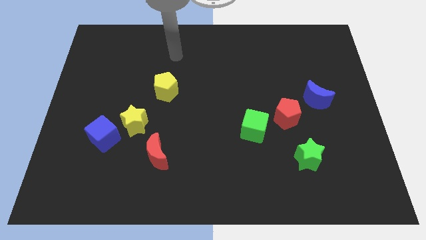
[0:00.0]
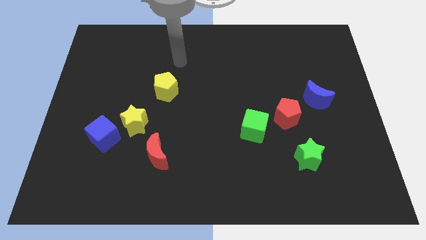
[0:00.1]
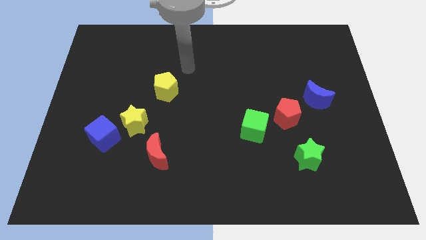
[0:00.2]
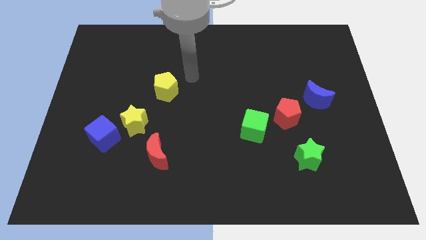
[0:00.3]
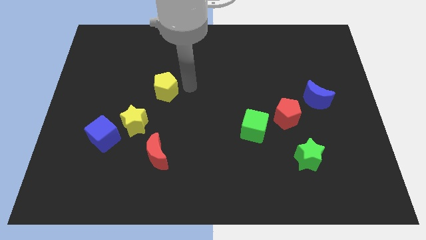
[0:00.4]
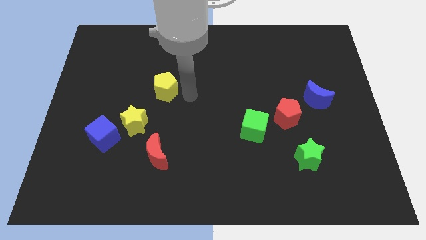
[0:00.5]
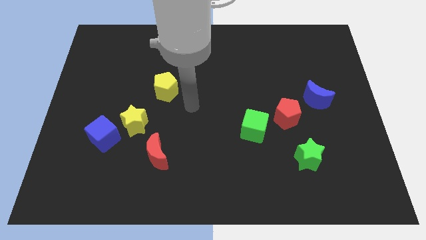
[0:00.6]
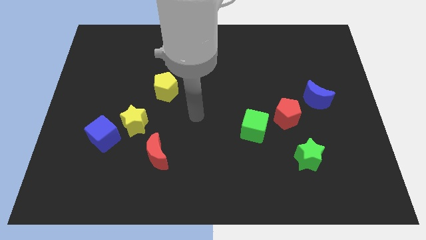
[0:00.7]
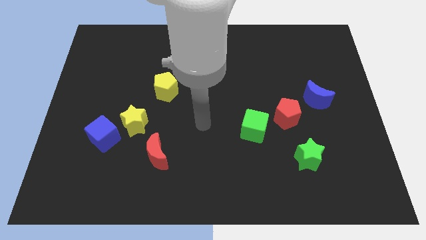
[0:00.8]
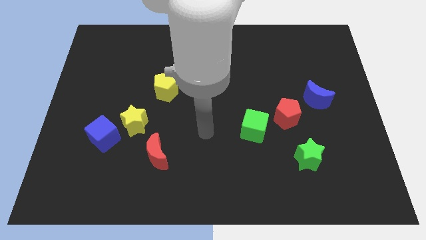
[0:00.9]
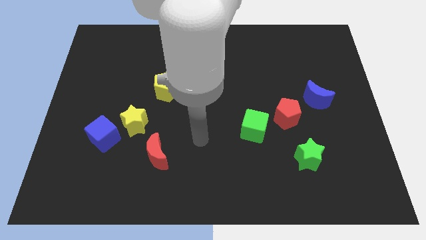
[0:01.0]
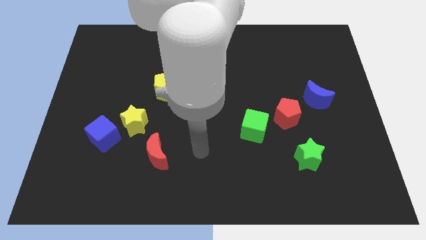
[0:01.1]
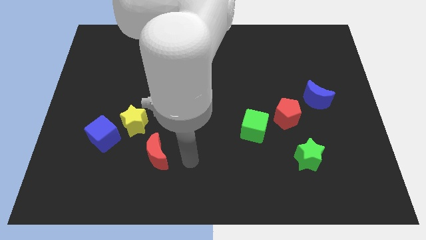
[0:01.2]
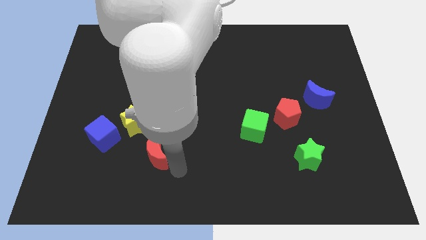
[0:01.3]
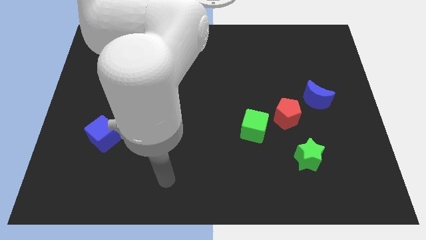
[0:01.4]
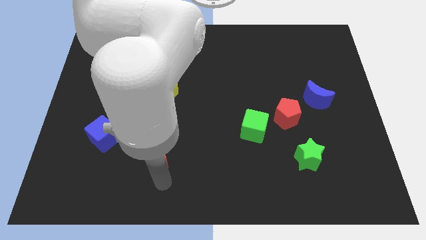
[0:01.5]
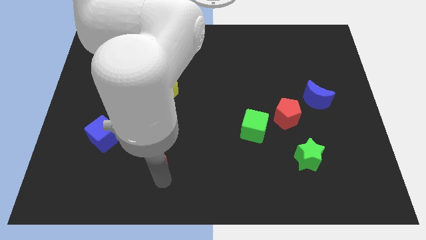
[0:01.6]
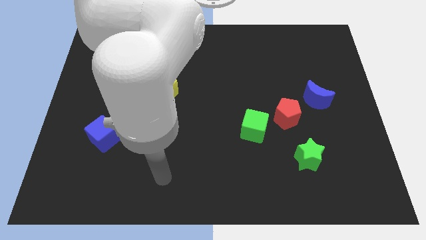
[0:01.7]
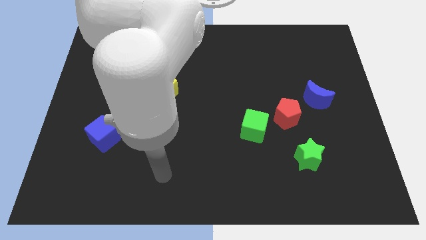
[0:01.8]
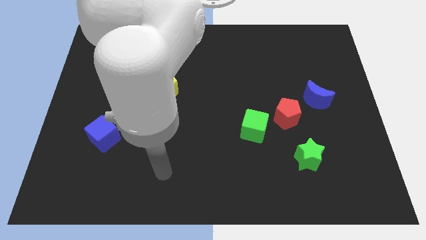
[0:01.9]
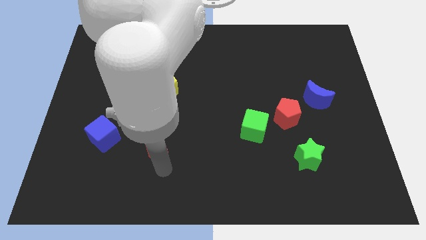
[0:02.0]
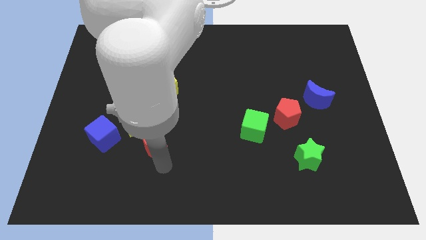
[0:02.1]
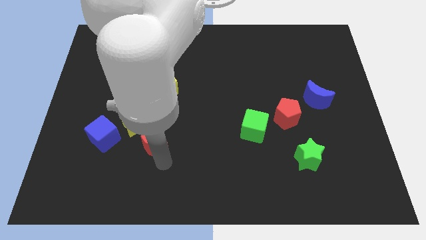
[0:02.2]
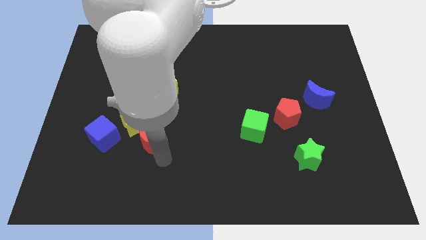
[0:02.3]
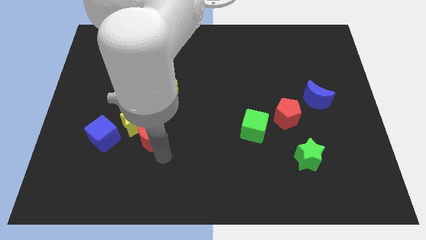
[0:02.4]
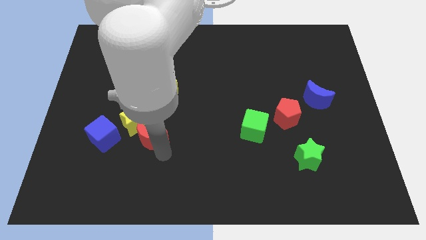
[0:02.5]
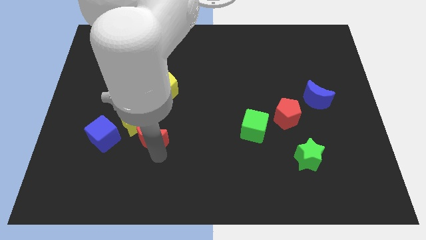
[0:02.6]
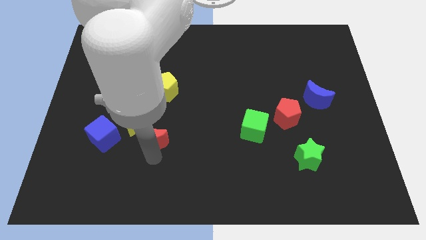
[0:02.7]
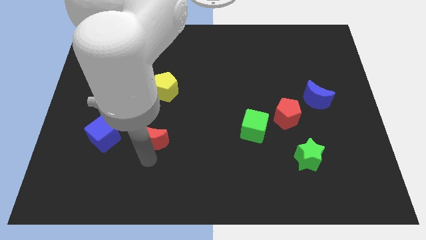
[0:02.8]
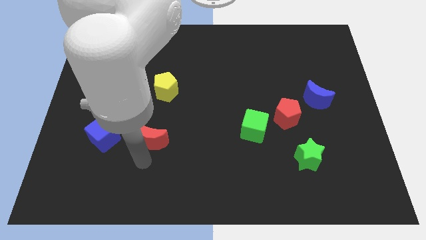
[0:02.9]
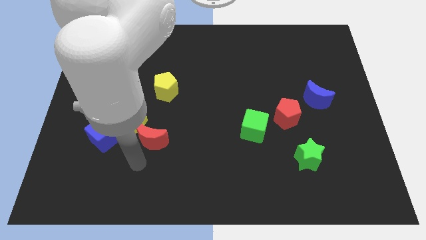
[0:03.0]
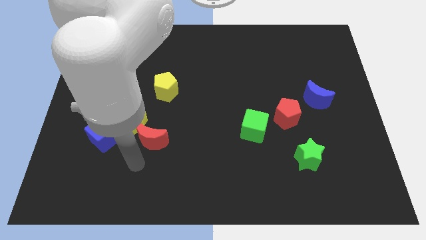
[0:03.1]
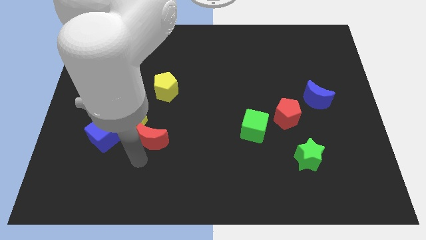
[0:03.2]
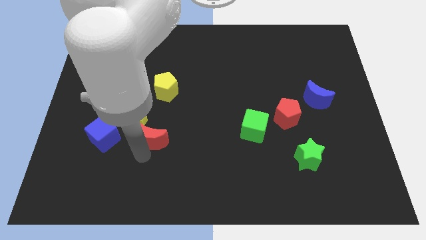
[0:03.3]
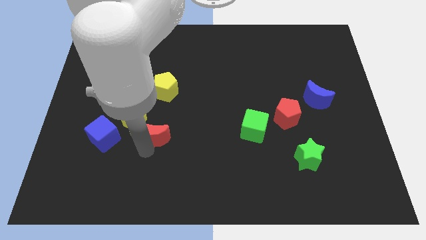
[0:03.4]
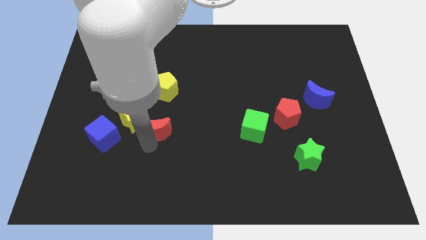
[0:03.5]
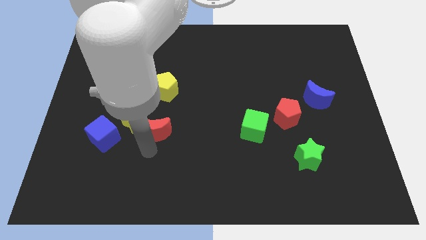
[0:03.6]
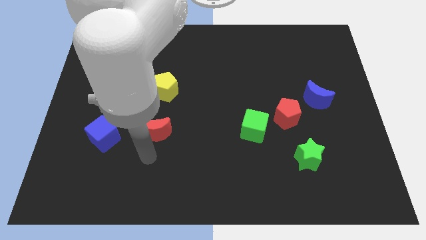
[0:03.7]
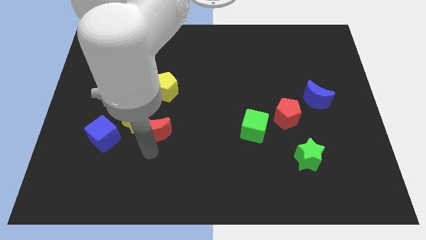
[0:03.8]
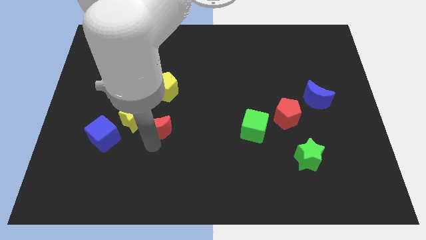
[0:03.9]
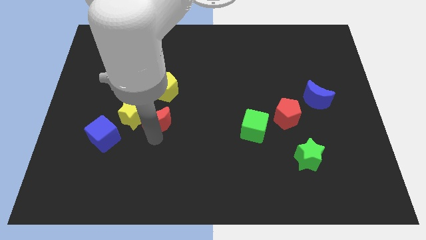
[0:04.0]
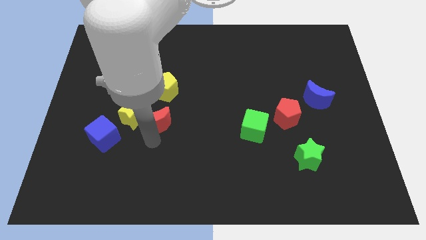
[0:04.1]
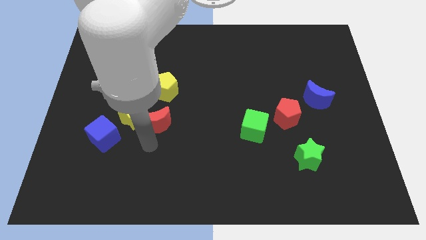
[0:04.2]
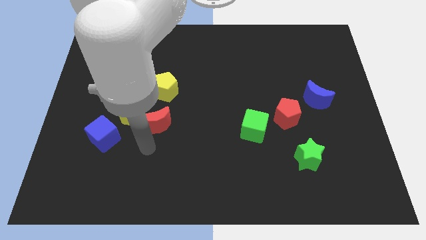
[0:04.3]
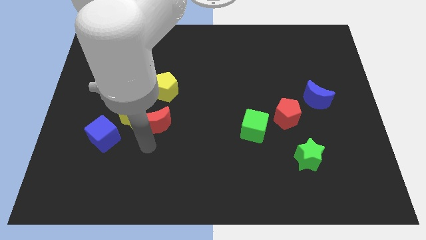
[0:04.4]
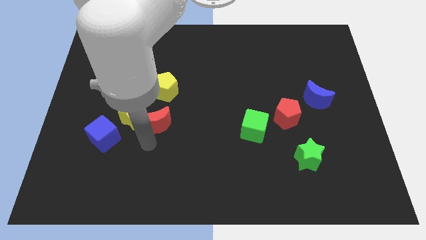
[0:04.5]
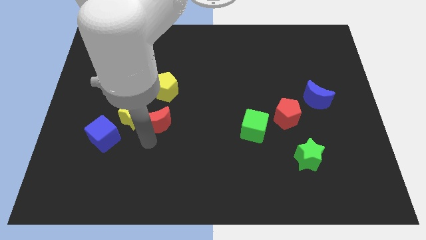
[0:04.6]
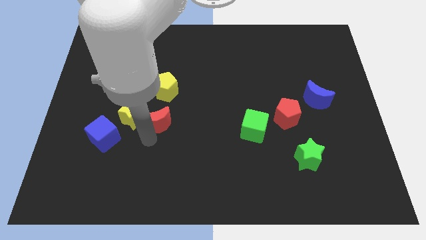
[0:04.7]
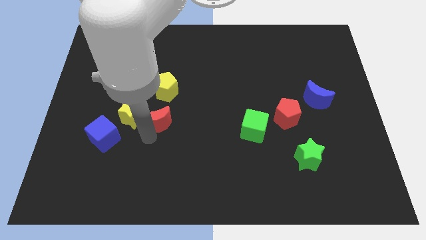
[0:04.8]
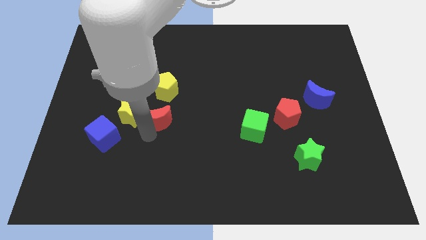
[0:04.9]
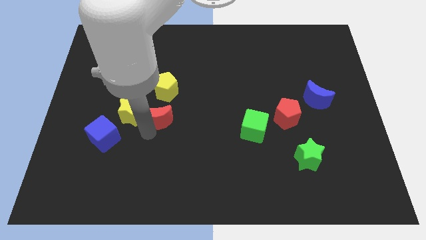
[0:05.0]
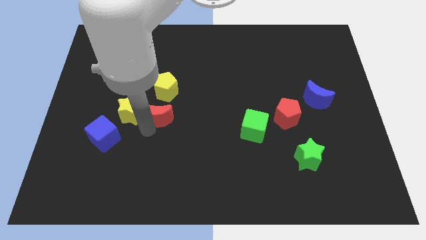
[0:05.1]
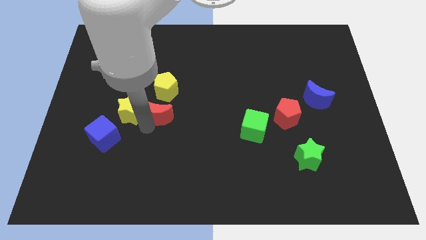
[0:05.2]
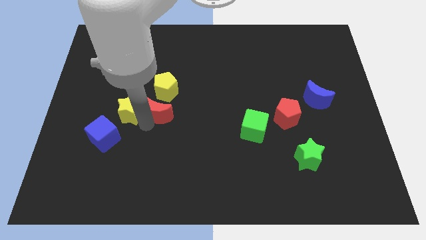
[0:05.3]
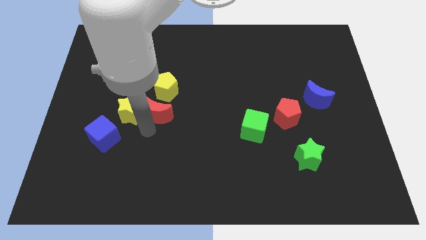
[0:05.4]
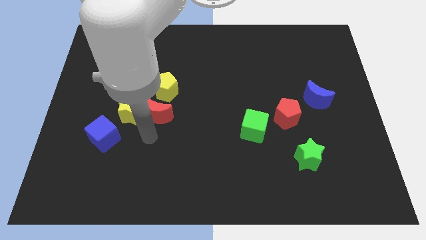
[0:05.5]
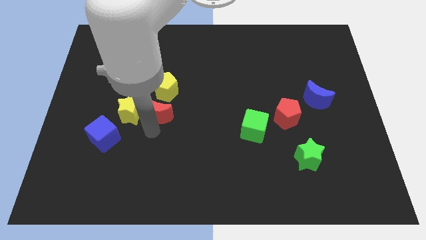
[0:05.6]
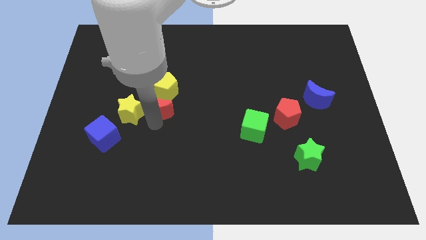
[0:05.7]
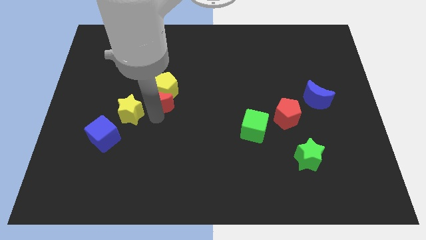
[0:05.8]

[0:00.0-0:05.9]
slide the red moon towards the yellow pentagon

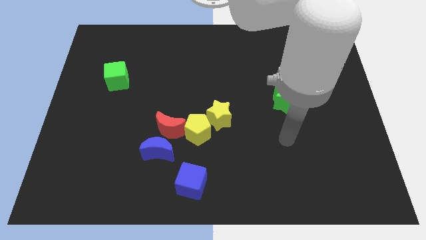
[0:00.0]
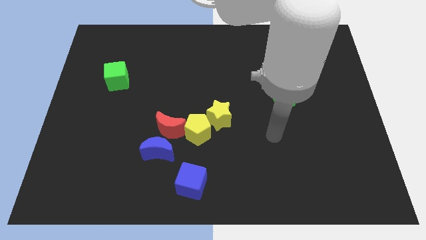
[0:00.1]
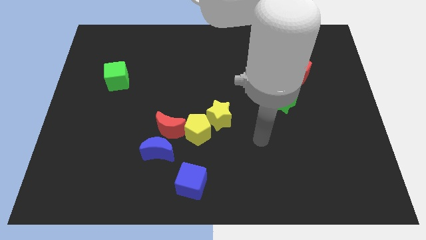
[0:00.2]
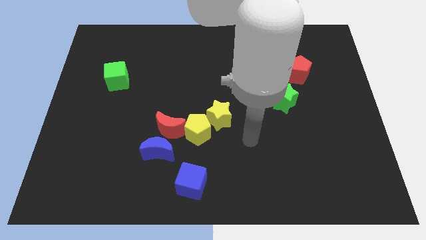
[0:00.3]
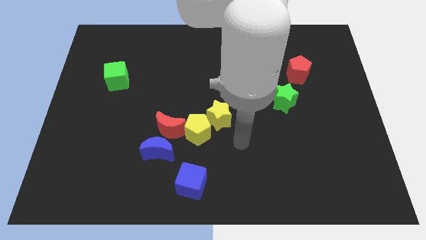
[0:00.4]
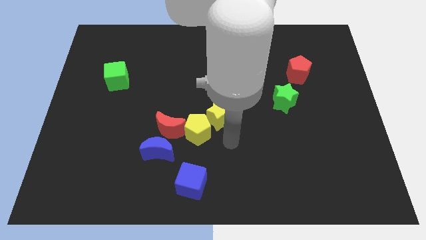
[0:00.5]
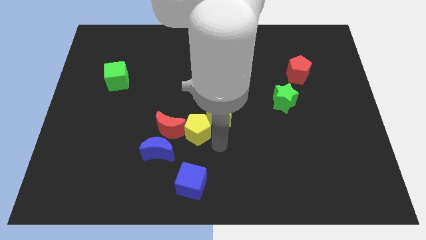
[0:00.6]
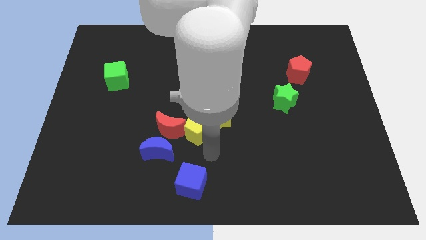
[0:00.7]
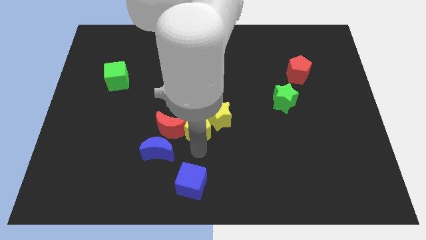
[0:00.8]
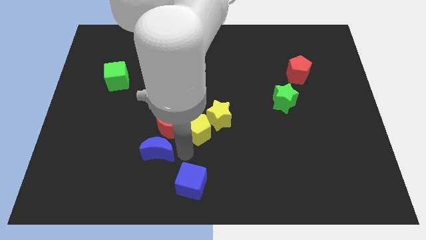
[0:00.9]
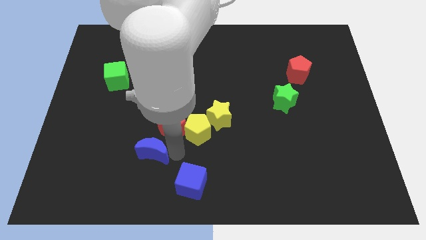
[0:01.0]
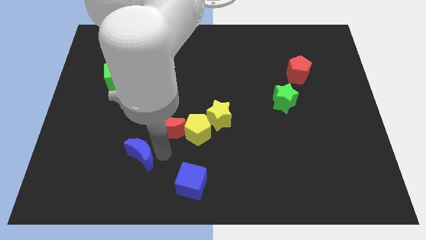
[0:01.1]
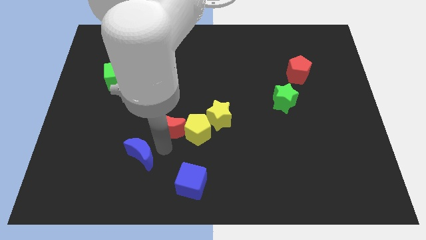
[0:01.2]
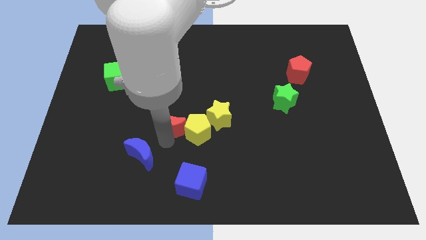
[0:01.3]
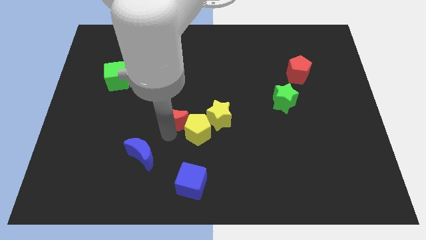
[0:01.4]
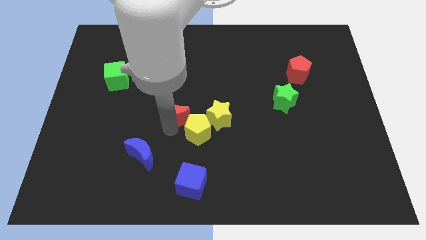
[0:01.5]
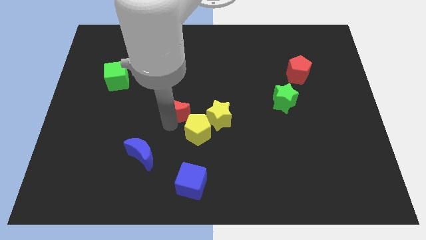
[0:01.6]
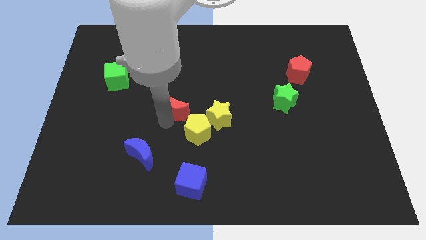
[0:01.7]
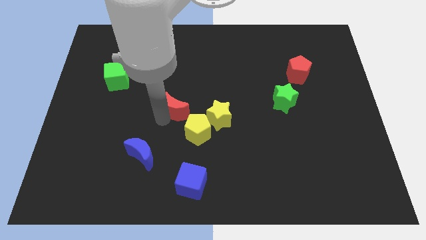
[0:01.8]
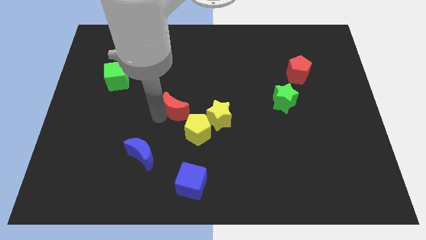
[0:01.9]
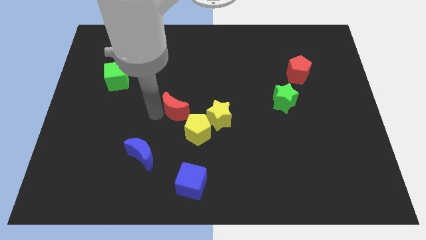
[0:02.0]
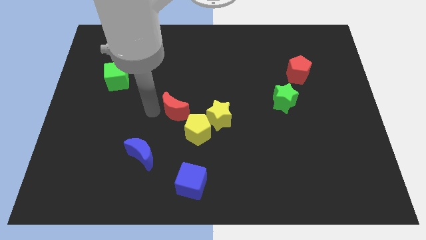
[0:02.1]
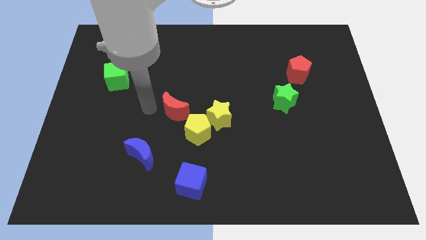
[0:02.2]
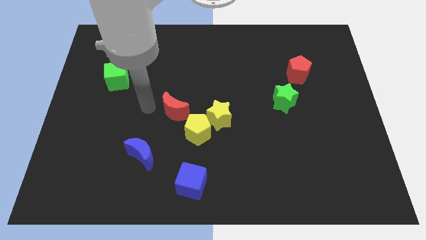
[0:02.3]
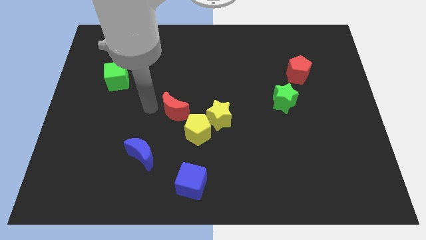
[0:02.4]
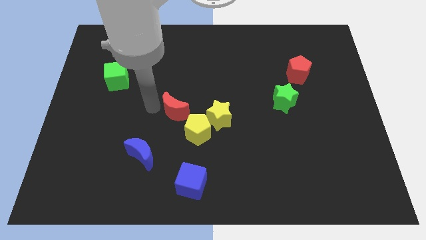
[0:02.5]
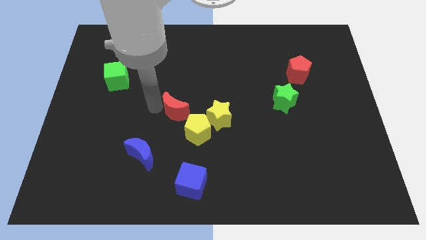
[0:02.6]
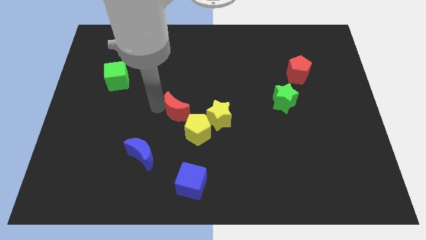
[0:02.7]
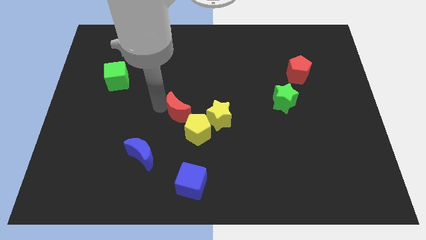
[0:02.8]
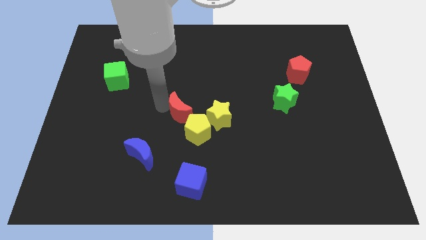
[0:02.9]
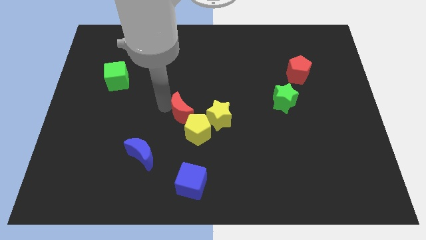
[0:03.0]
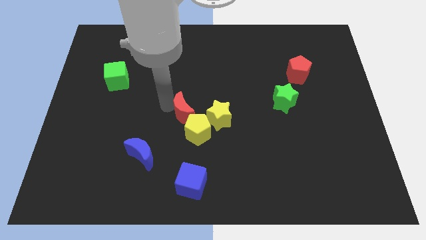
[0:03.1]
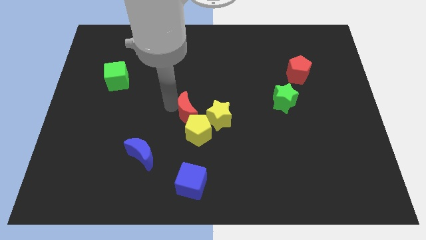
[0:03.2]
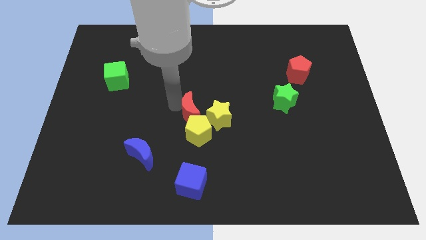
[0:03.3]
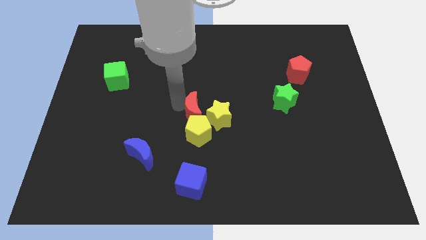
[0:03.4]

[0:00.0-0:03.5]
slide the red moon next to the yellow star
